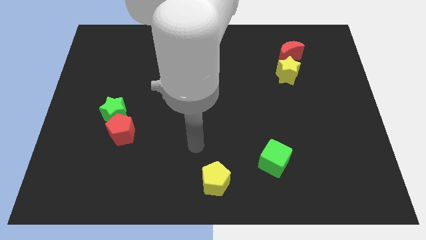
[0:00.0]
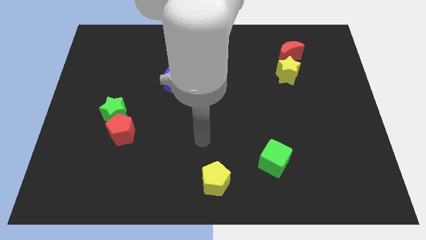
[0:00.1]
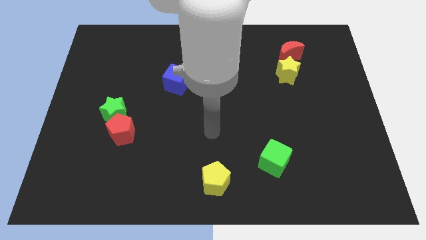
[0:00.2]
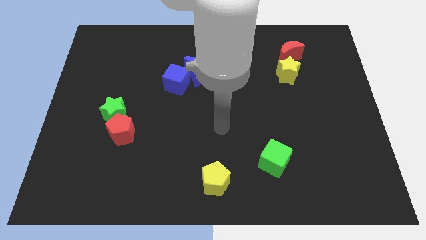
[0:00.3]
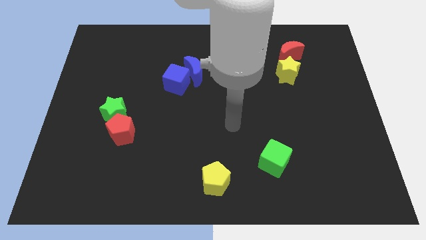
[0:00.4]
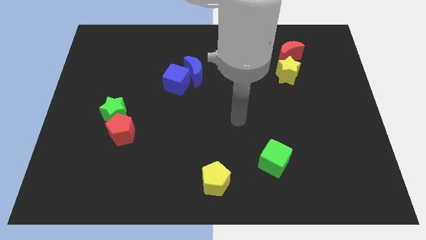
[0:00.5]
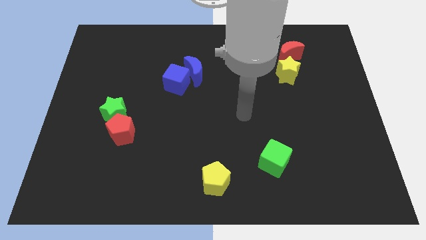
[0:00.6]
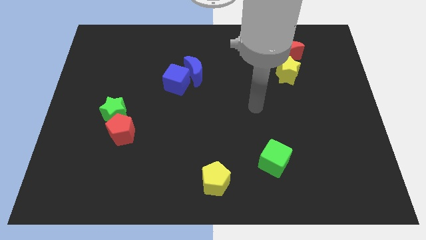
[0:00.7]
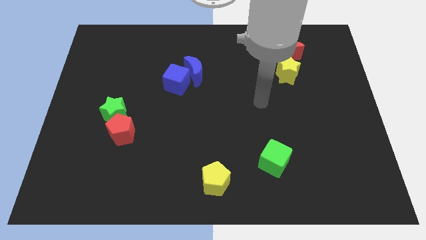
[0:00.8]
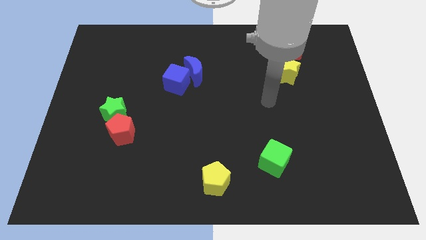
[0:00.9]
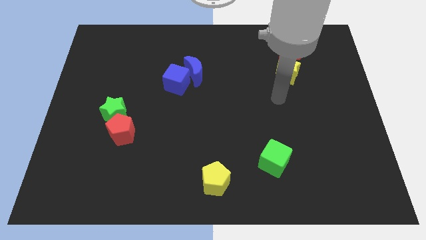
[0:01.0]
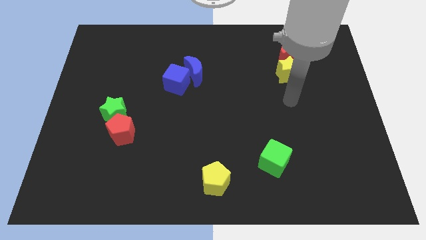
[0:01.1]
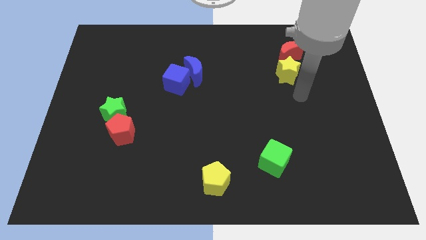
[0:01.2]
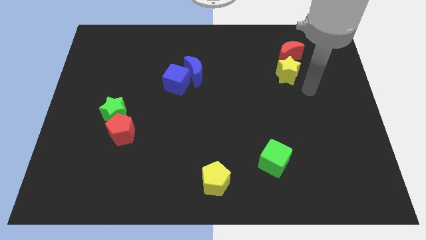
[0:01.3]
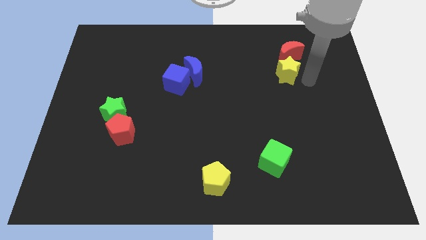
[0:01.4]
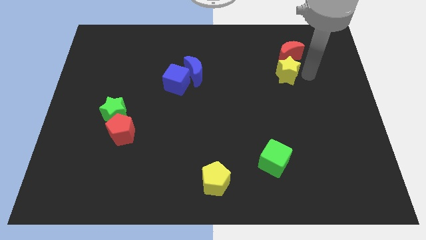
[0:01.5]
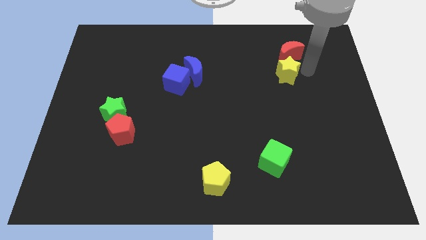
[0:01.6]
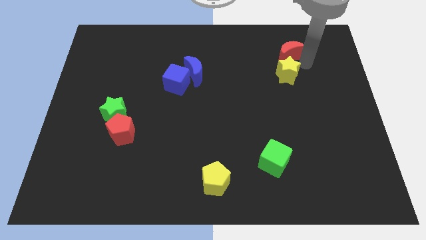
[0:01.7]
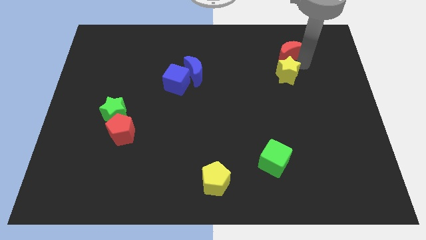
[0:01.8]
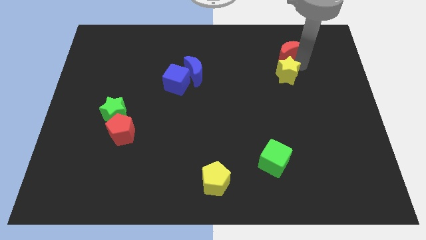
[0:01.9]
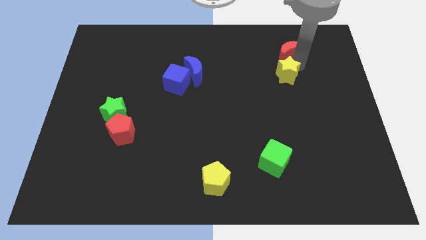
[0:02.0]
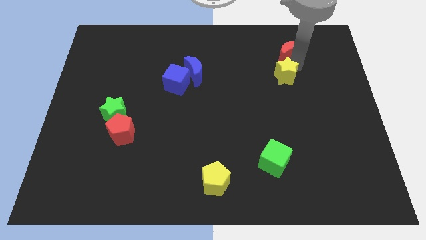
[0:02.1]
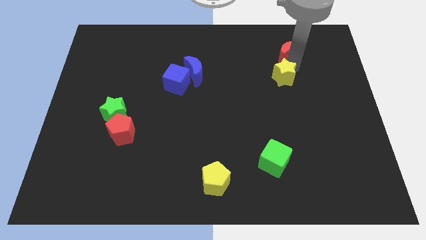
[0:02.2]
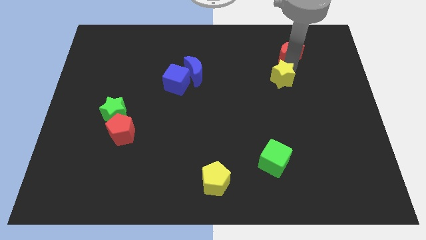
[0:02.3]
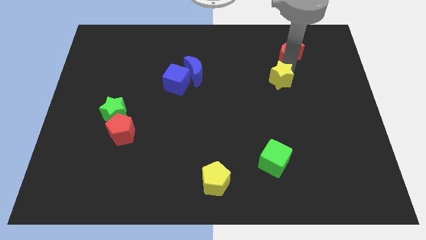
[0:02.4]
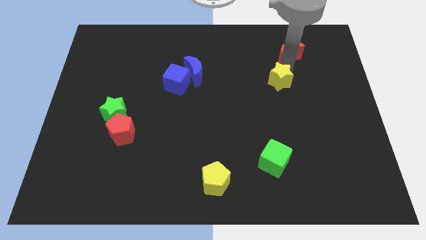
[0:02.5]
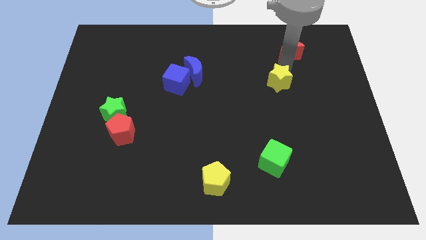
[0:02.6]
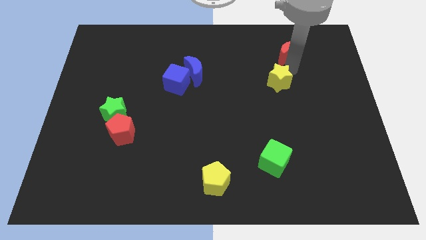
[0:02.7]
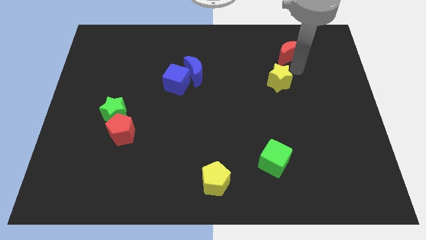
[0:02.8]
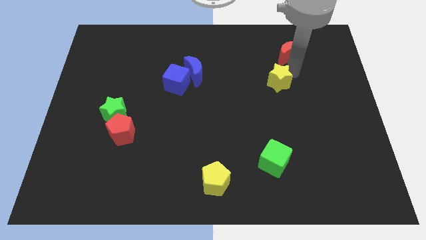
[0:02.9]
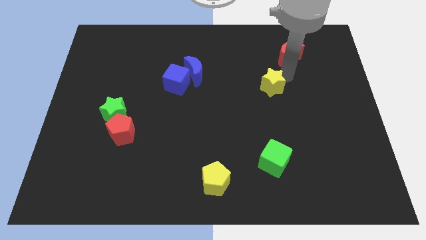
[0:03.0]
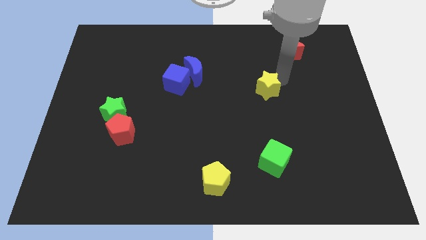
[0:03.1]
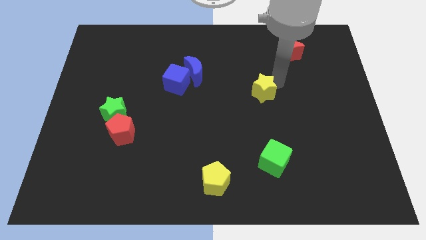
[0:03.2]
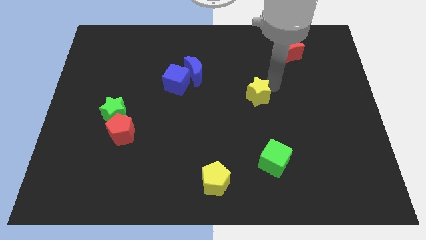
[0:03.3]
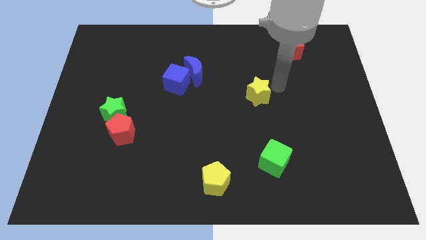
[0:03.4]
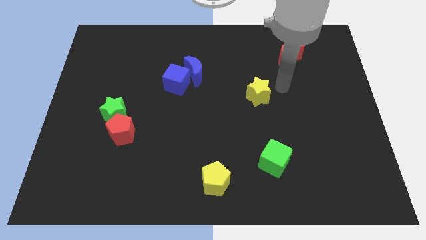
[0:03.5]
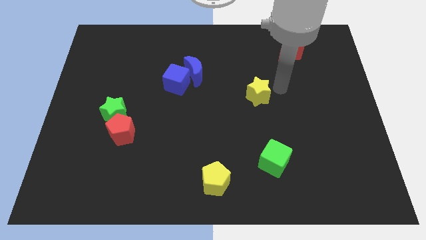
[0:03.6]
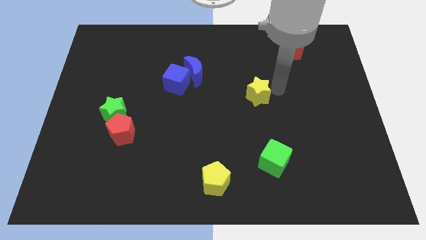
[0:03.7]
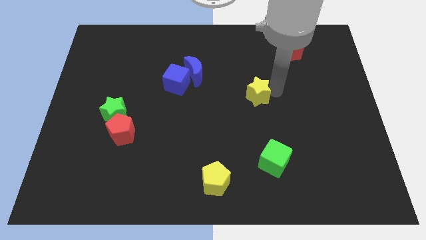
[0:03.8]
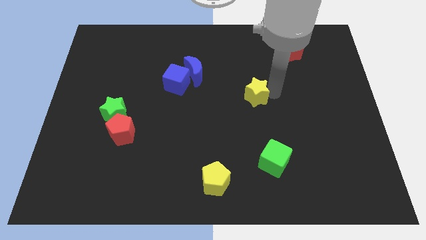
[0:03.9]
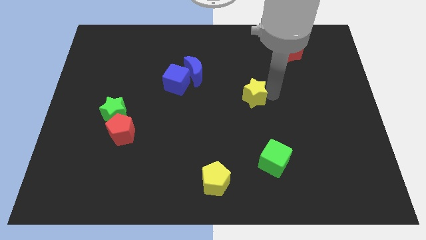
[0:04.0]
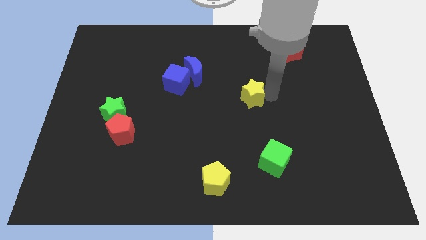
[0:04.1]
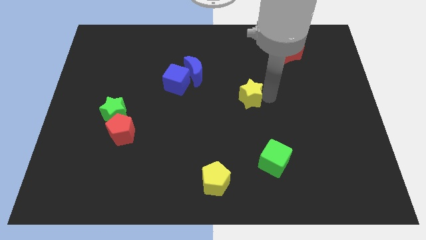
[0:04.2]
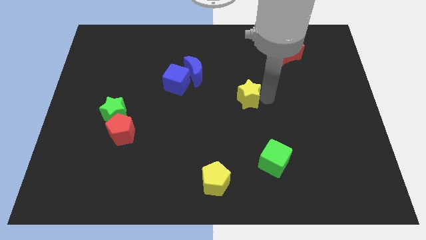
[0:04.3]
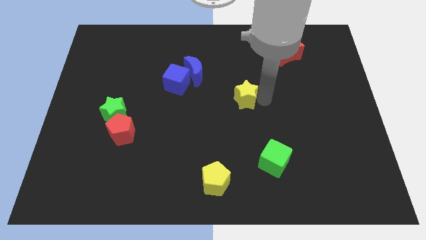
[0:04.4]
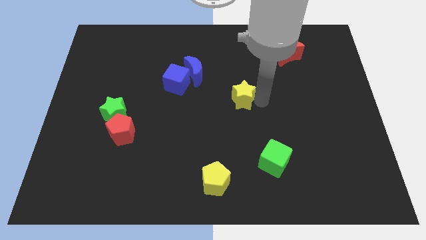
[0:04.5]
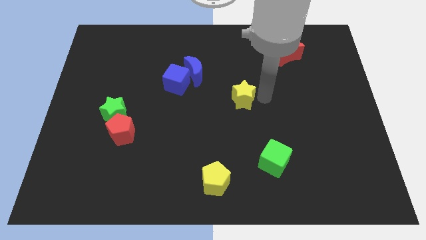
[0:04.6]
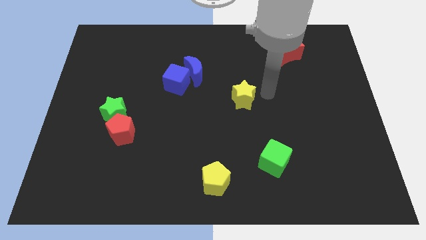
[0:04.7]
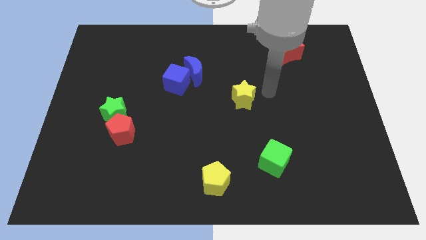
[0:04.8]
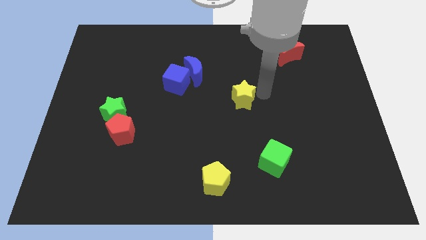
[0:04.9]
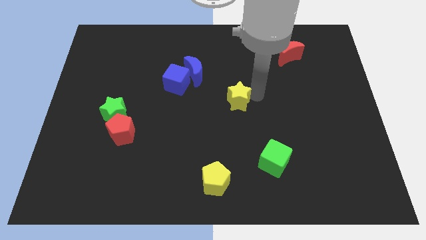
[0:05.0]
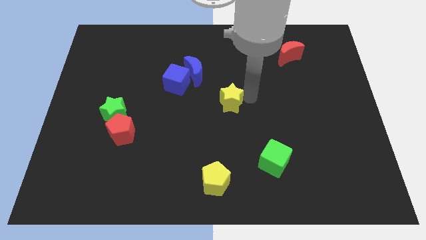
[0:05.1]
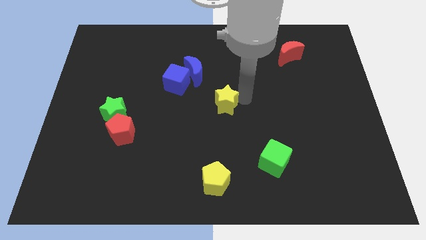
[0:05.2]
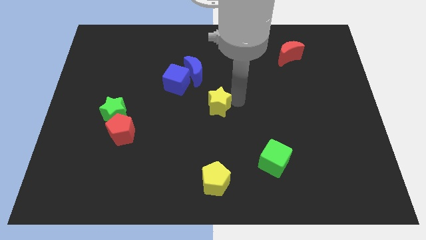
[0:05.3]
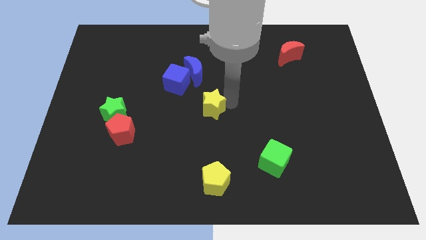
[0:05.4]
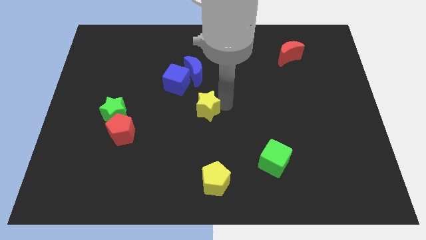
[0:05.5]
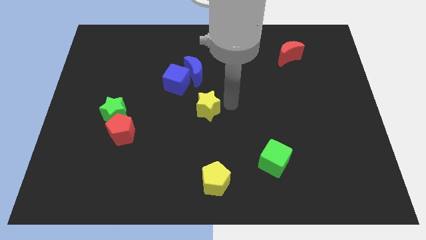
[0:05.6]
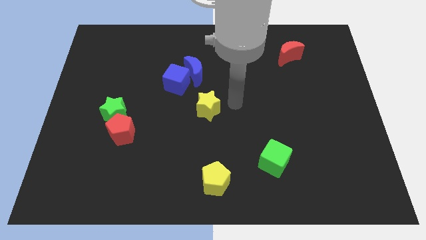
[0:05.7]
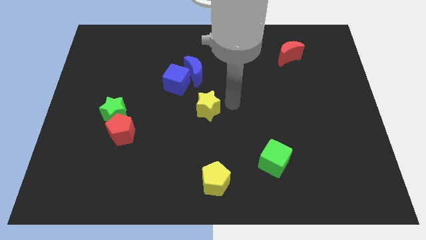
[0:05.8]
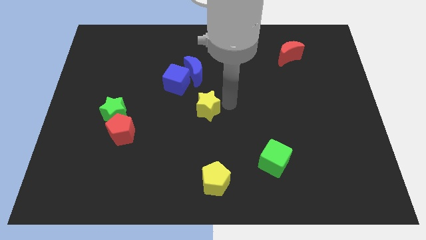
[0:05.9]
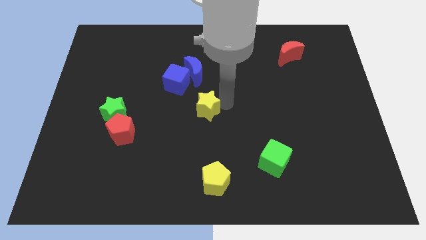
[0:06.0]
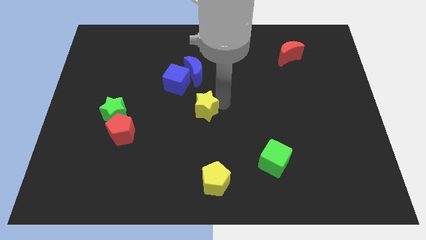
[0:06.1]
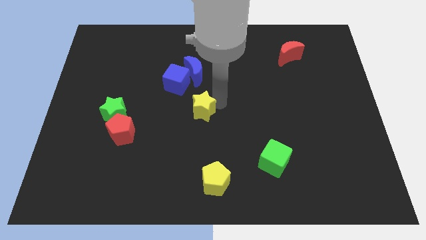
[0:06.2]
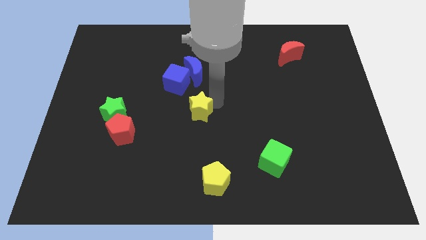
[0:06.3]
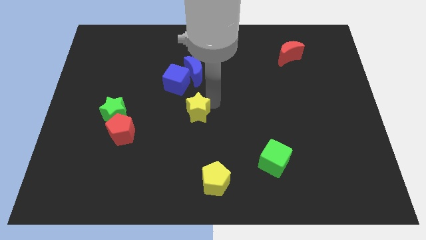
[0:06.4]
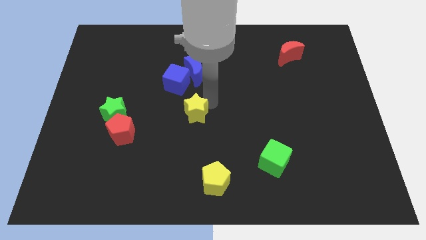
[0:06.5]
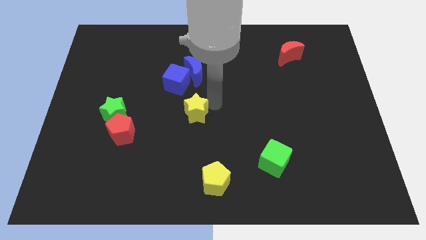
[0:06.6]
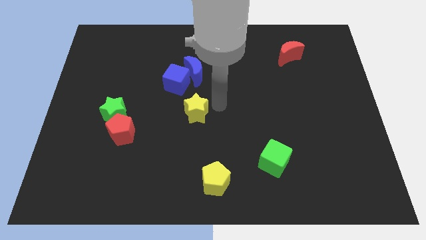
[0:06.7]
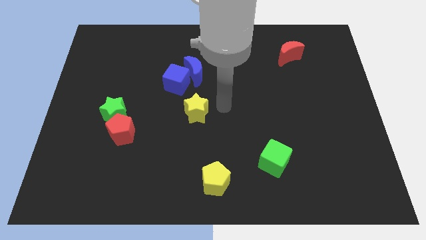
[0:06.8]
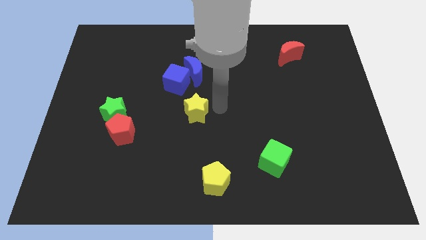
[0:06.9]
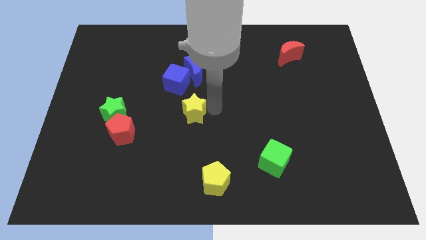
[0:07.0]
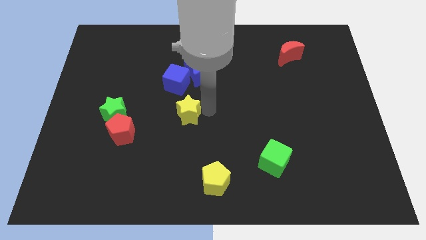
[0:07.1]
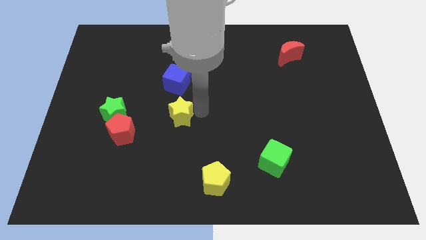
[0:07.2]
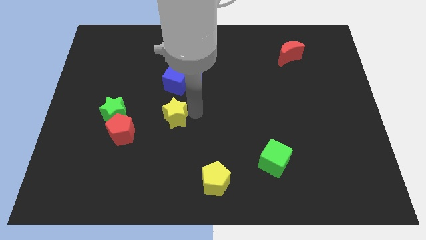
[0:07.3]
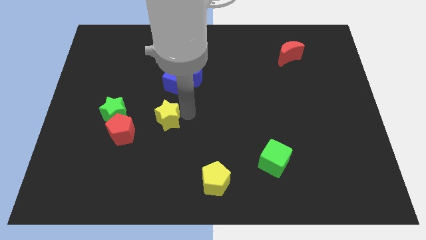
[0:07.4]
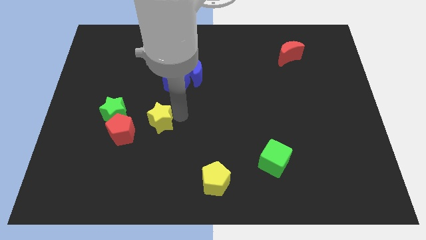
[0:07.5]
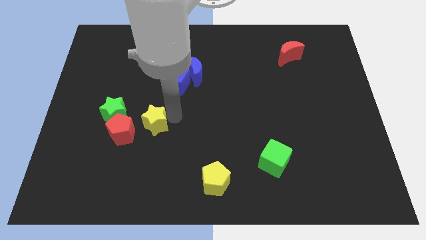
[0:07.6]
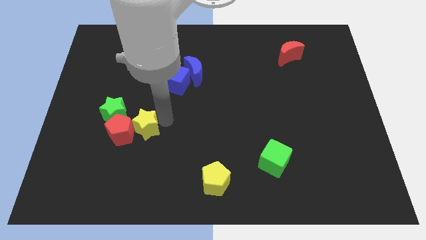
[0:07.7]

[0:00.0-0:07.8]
put the yellow star to the red pentagon
